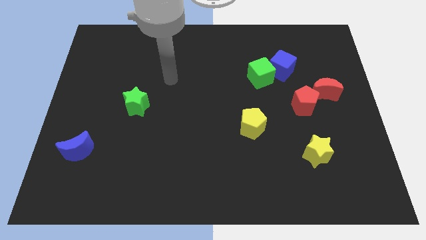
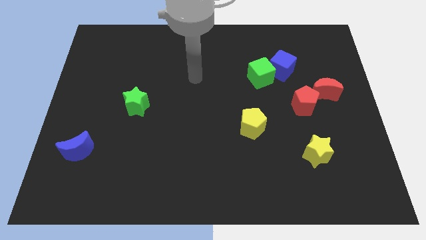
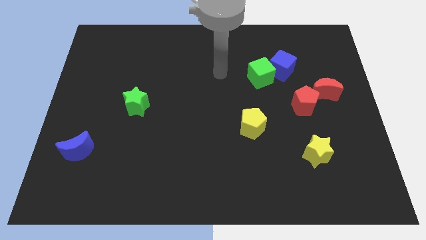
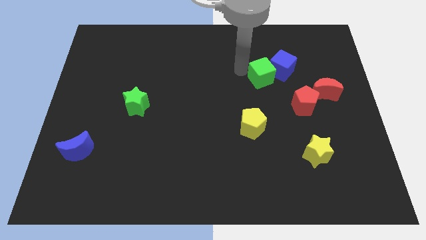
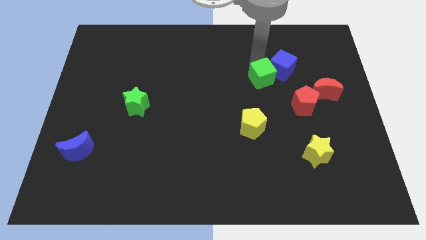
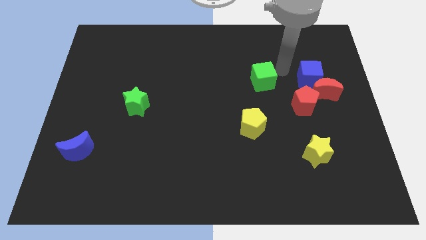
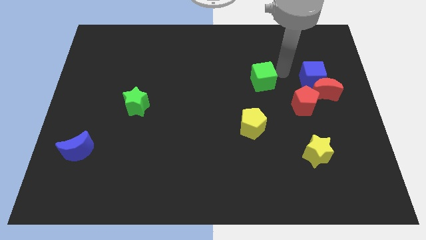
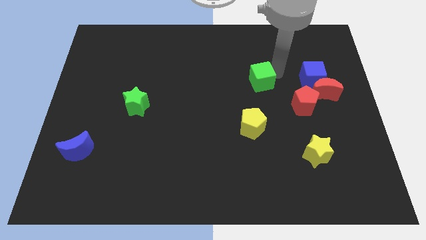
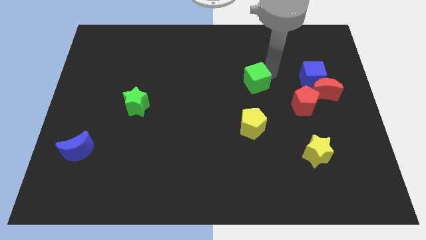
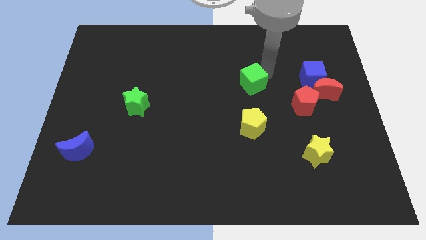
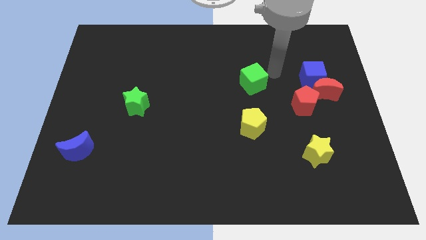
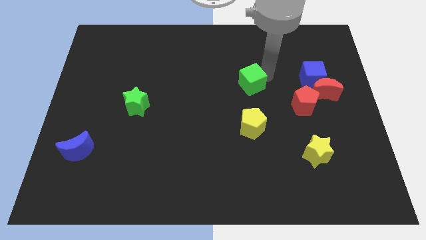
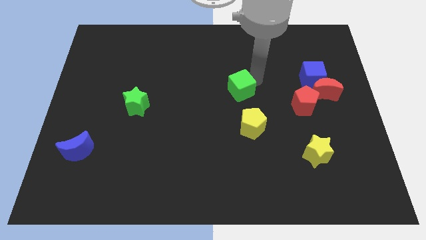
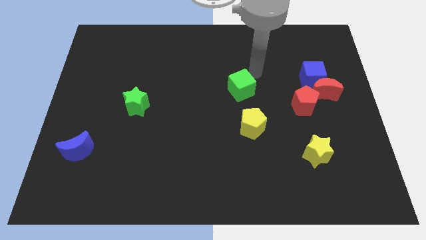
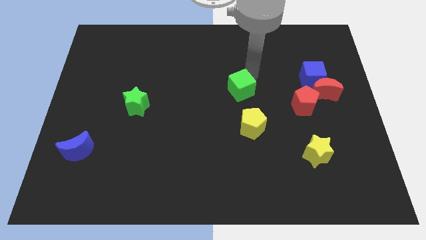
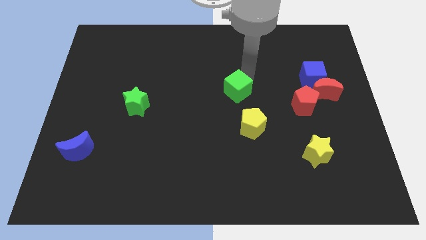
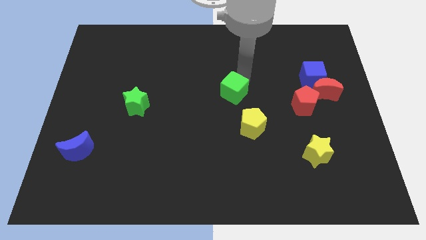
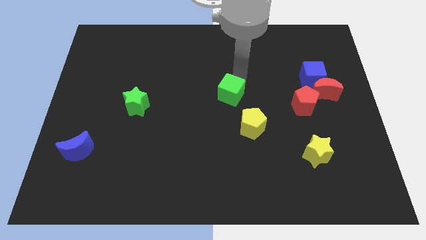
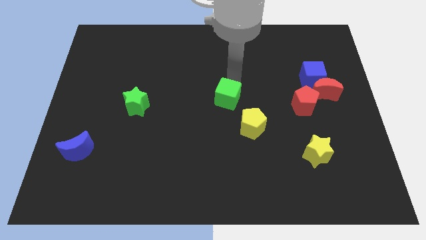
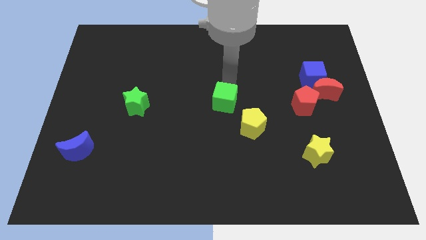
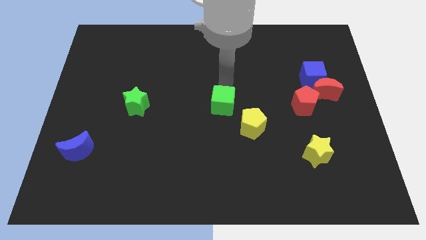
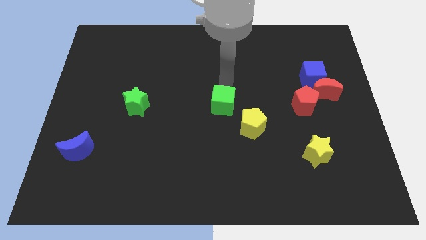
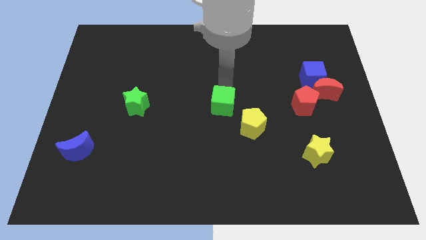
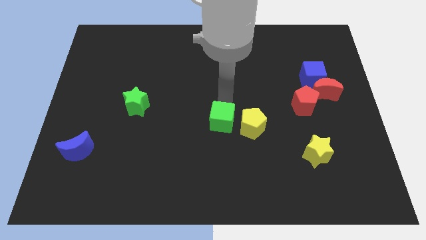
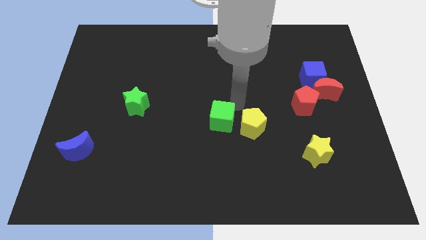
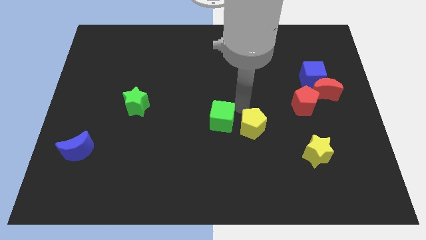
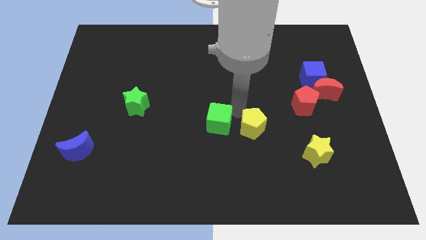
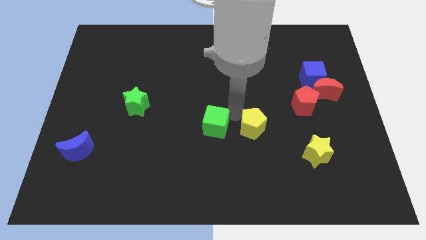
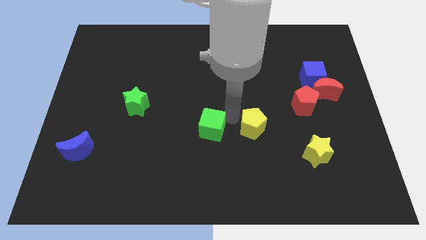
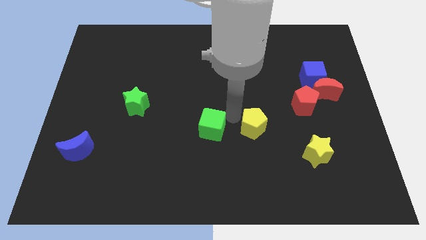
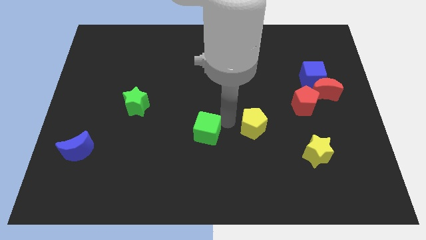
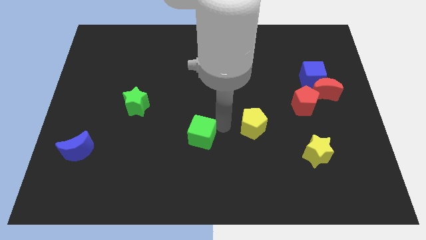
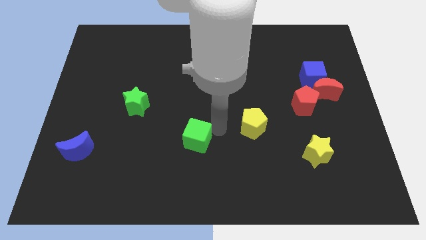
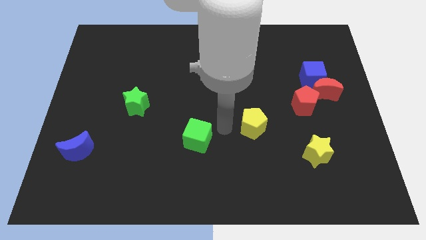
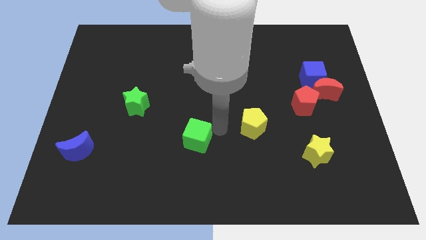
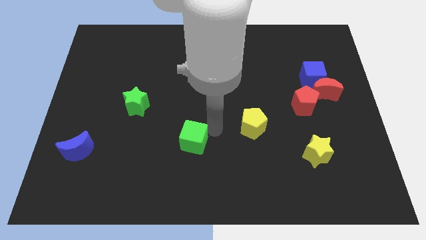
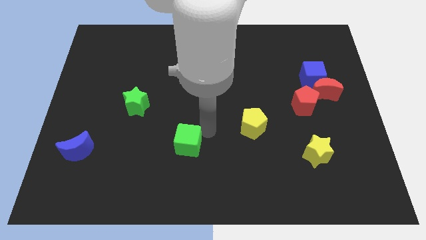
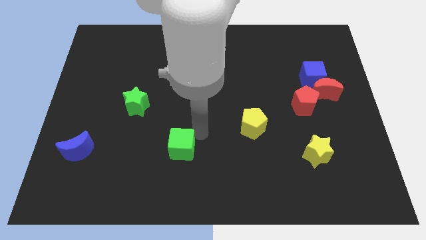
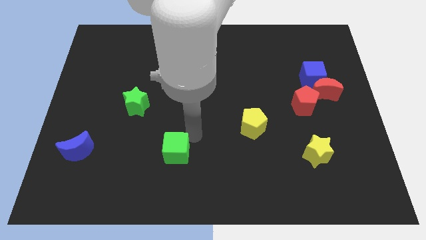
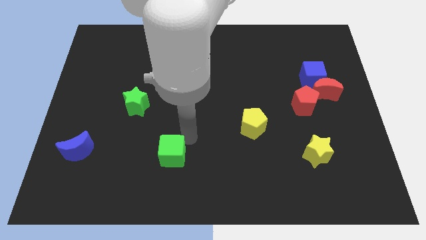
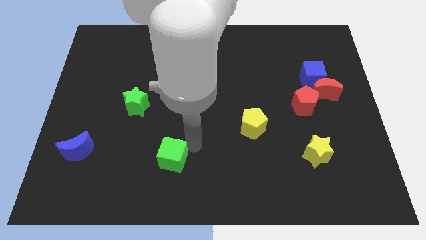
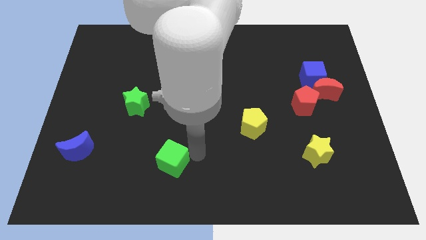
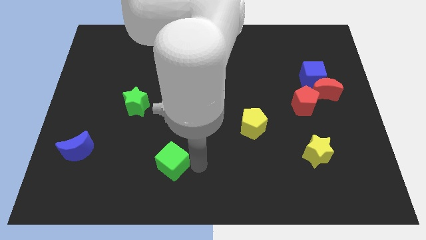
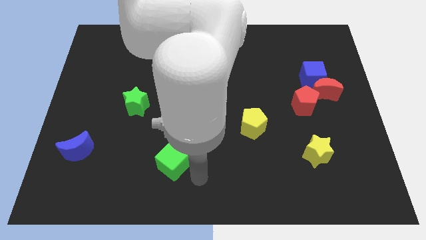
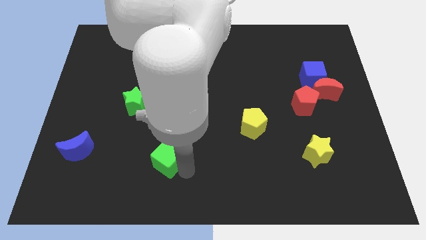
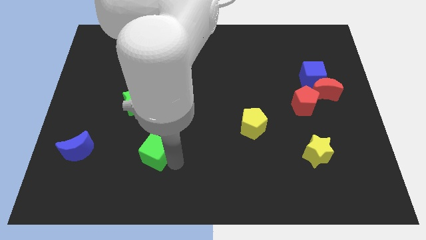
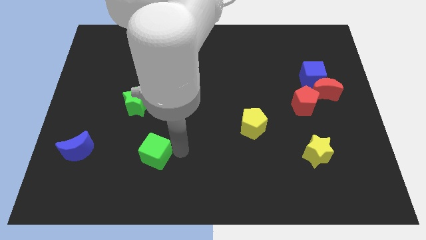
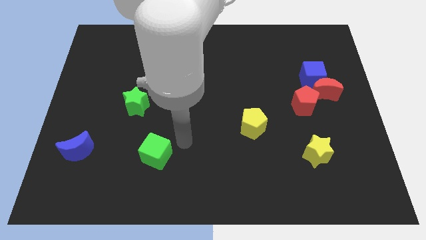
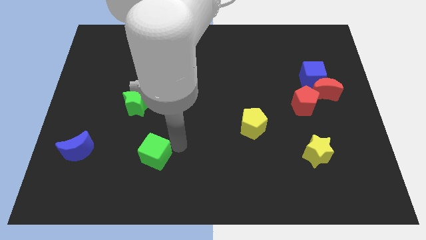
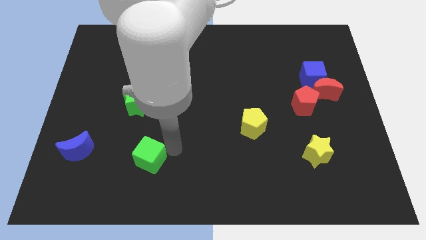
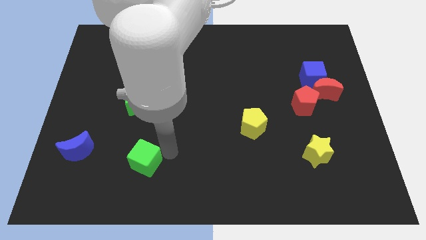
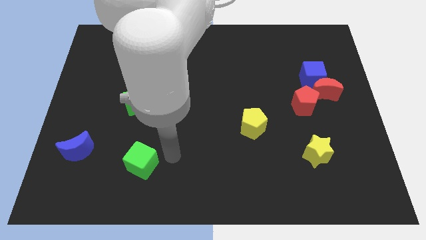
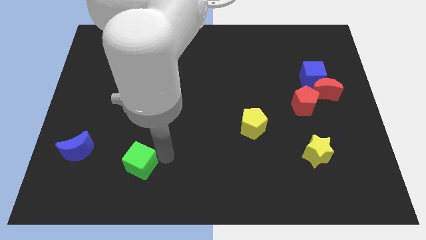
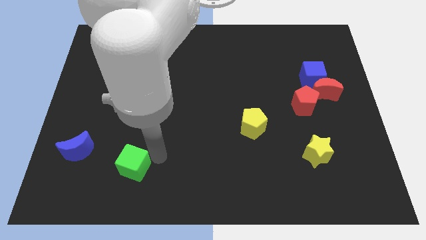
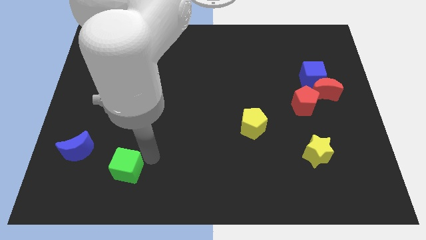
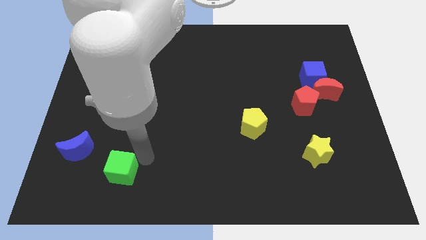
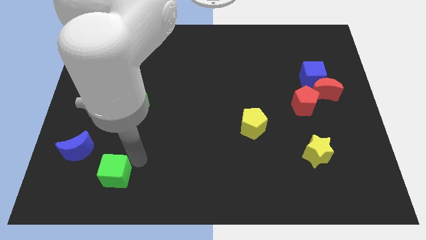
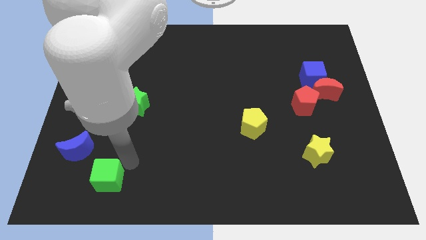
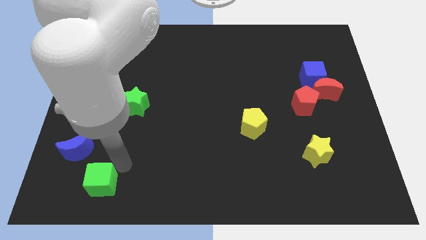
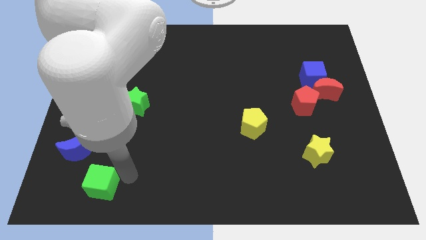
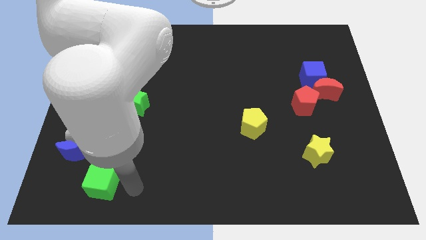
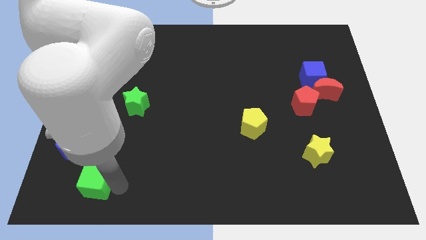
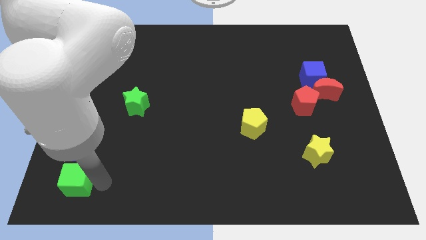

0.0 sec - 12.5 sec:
push the green cube to the bottom left

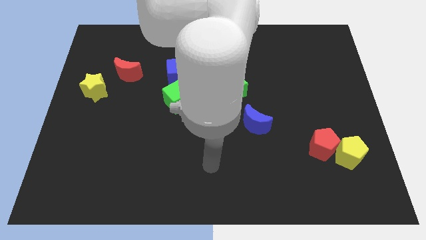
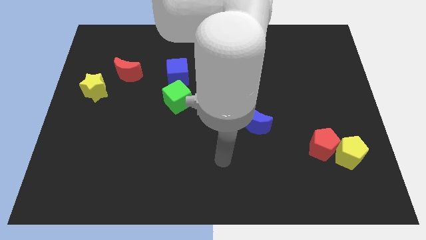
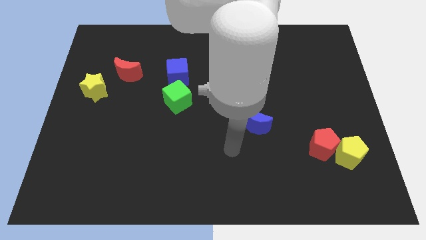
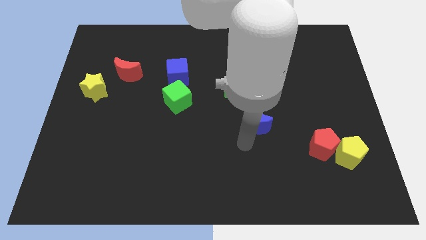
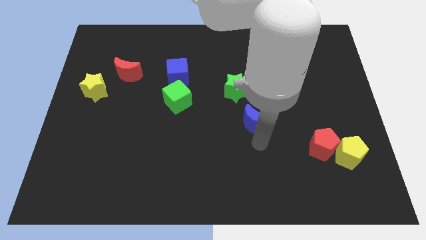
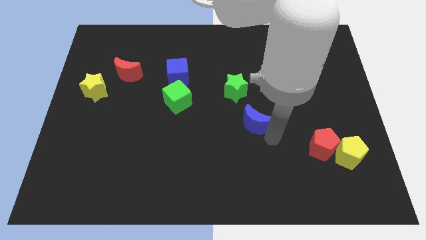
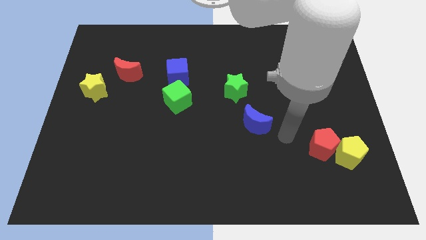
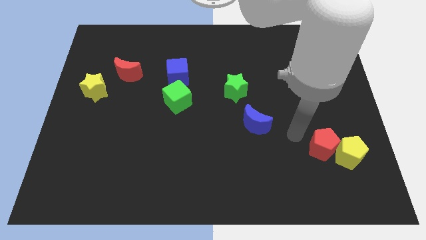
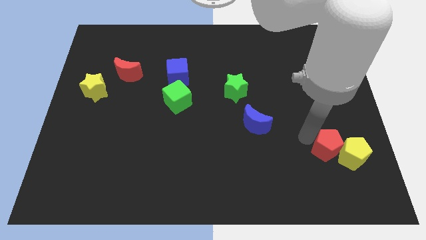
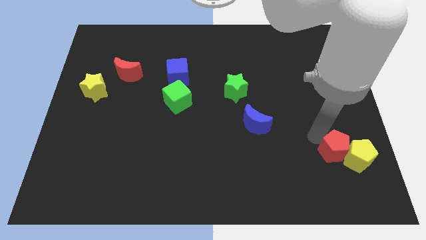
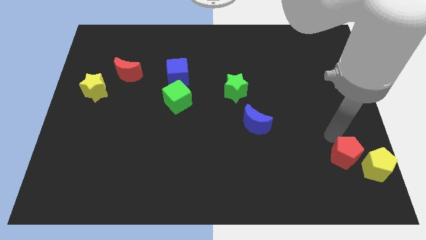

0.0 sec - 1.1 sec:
push the yellow pentagon to the lower right corner
